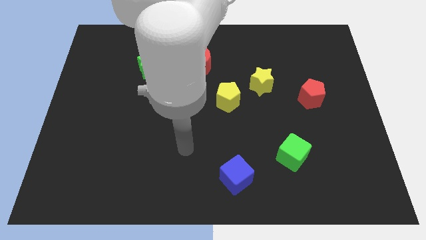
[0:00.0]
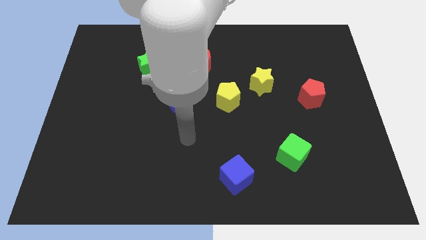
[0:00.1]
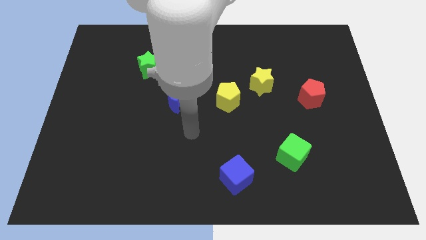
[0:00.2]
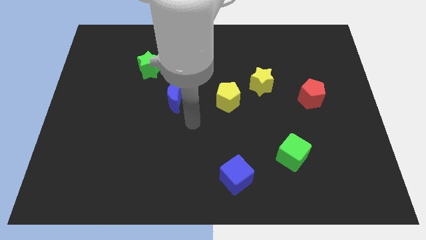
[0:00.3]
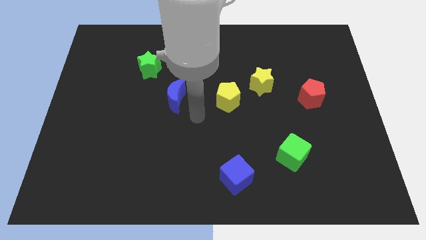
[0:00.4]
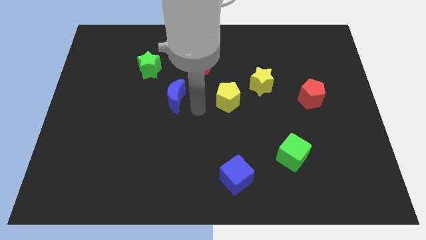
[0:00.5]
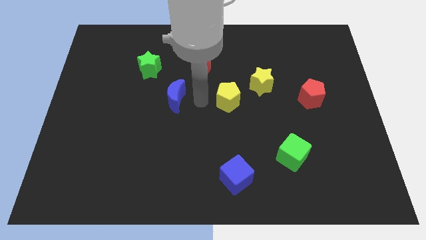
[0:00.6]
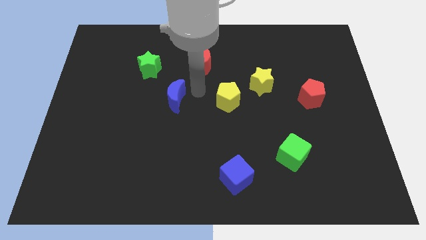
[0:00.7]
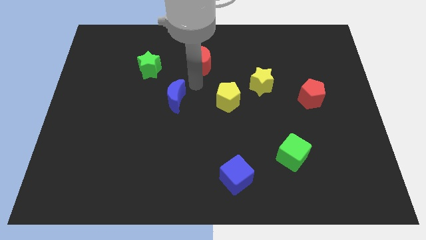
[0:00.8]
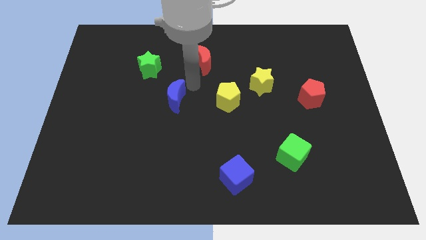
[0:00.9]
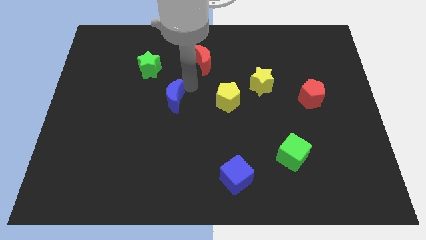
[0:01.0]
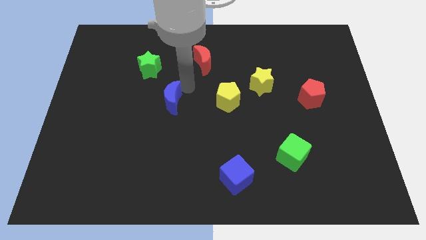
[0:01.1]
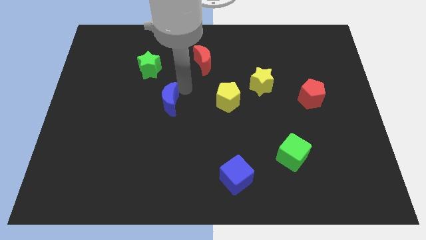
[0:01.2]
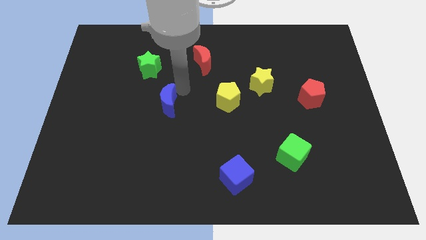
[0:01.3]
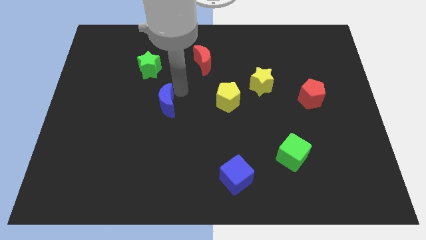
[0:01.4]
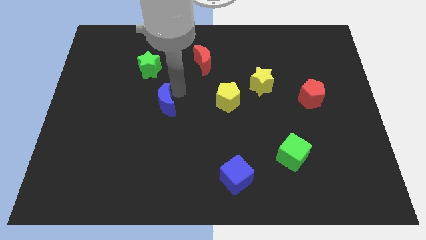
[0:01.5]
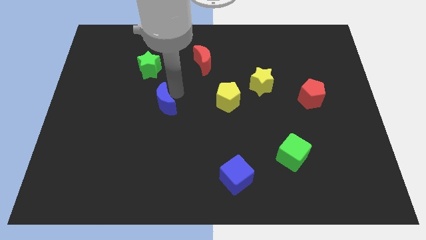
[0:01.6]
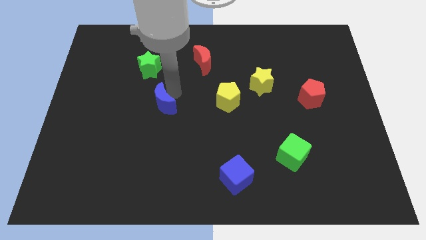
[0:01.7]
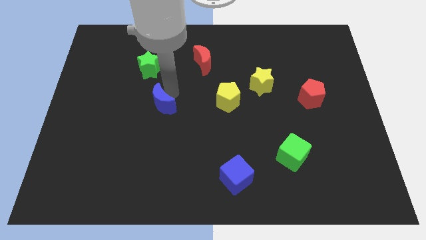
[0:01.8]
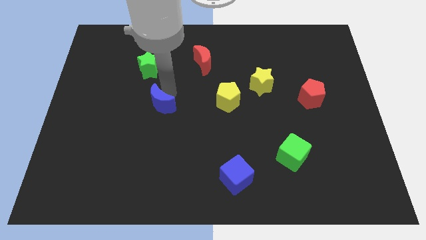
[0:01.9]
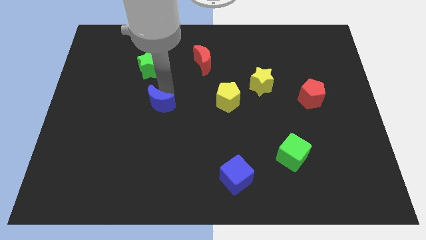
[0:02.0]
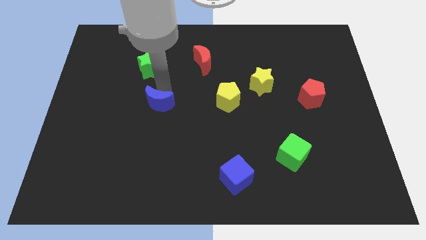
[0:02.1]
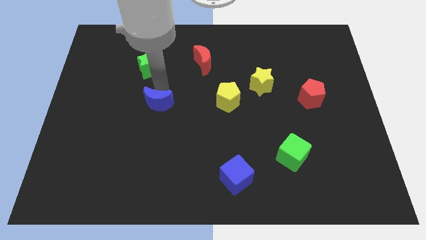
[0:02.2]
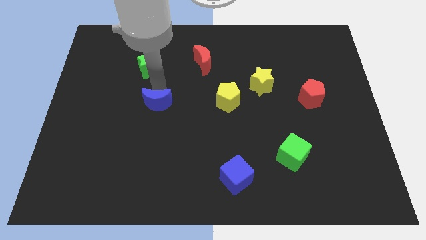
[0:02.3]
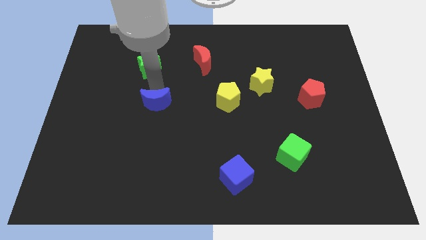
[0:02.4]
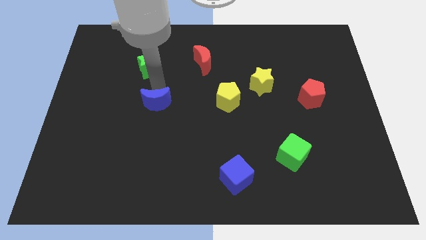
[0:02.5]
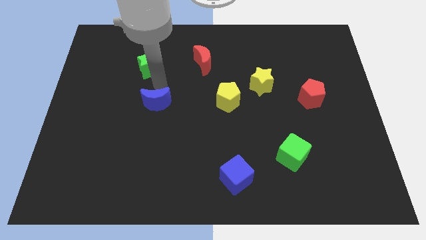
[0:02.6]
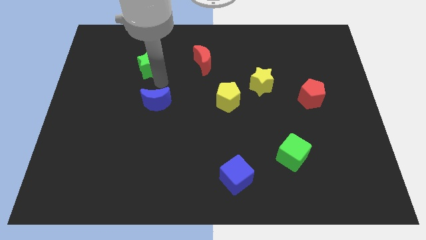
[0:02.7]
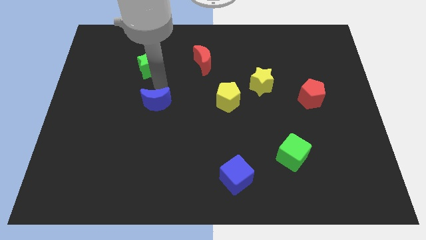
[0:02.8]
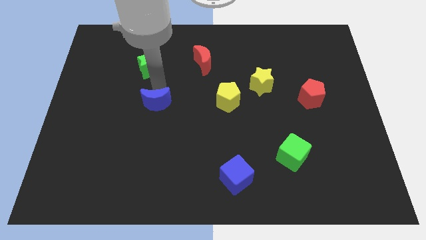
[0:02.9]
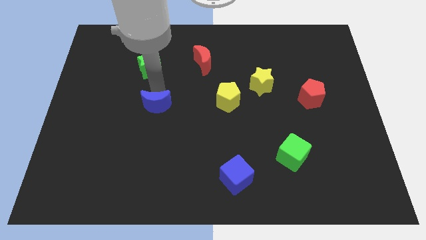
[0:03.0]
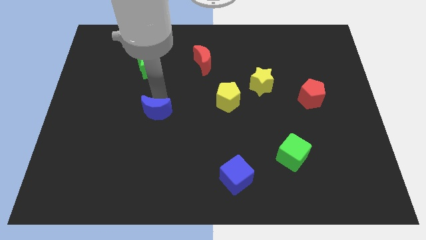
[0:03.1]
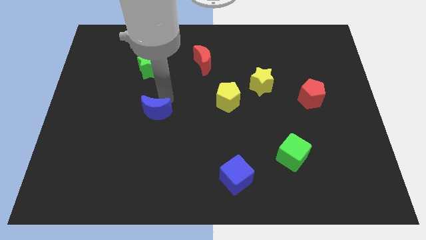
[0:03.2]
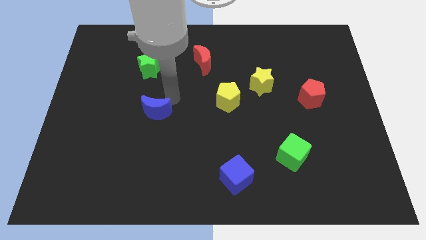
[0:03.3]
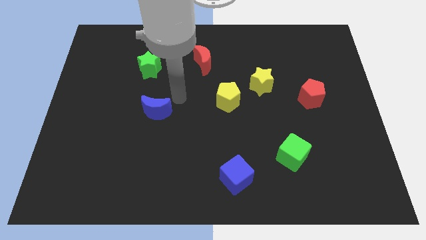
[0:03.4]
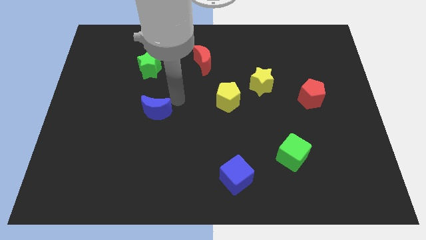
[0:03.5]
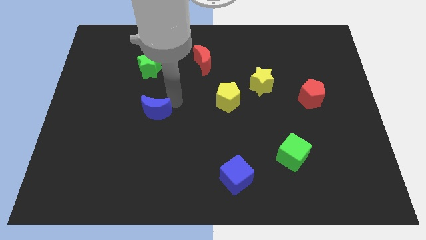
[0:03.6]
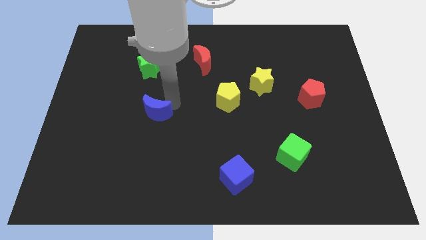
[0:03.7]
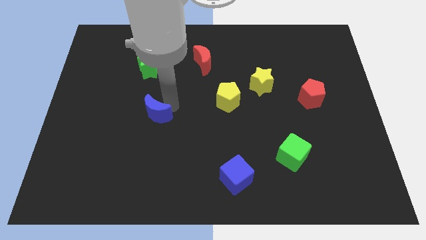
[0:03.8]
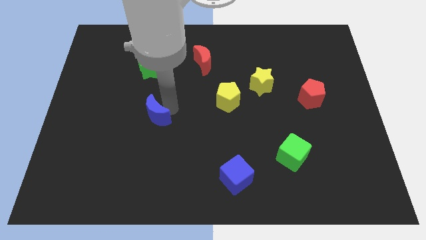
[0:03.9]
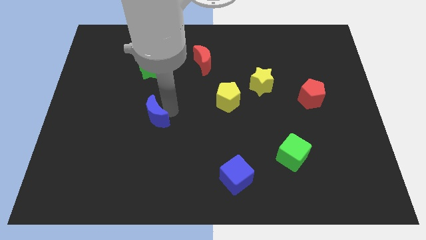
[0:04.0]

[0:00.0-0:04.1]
slightly move the blue moon diagonally down and left

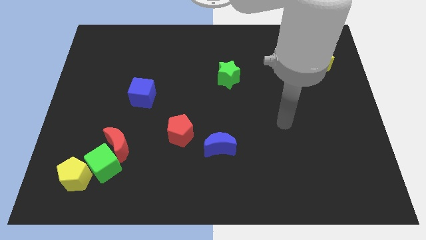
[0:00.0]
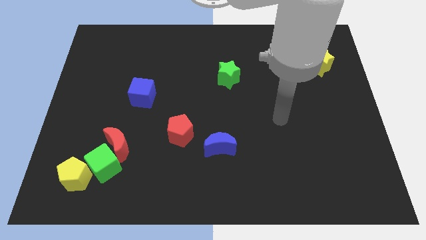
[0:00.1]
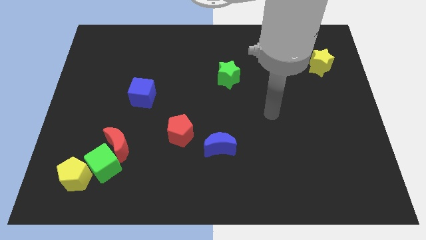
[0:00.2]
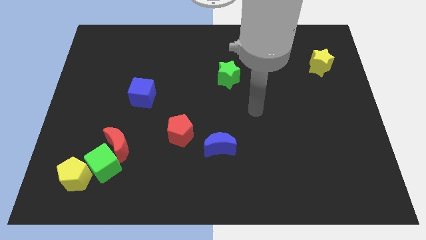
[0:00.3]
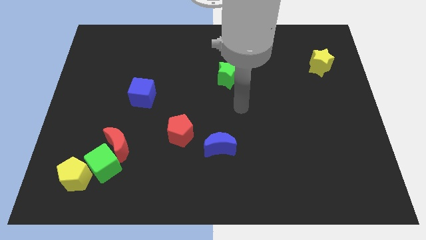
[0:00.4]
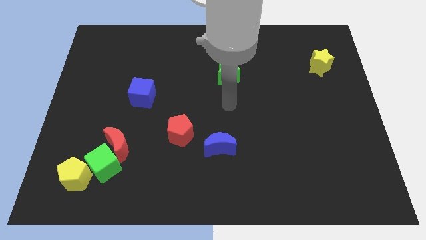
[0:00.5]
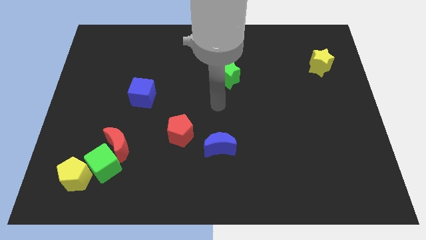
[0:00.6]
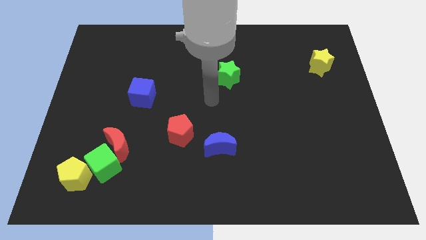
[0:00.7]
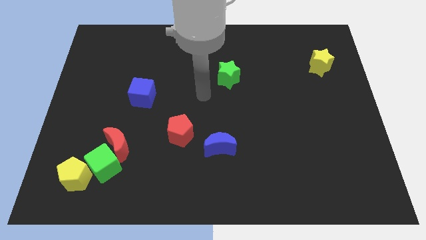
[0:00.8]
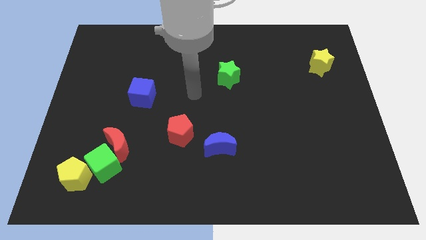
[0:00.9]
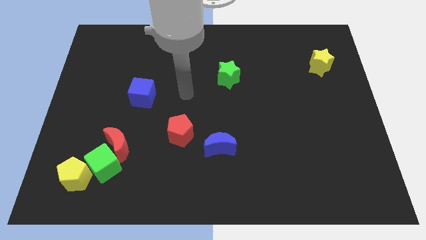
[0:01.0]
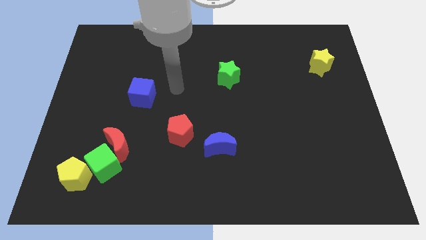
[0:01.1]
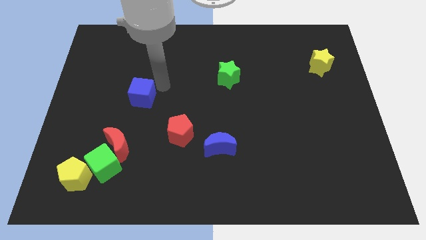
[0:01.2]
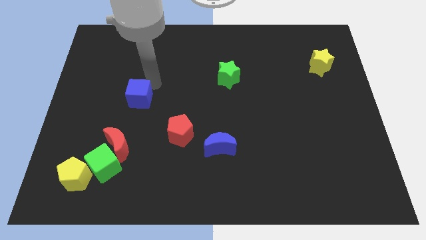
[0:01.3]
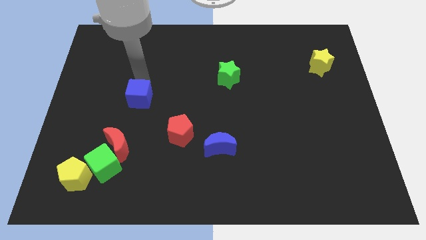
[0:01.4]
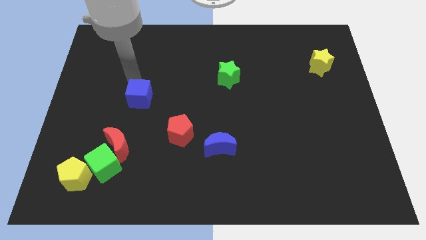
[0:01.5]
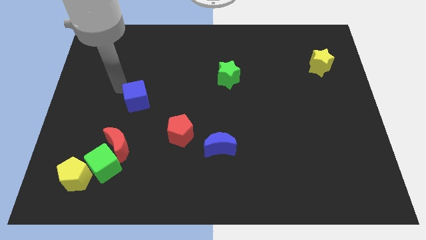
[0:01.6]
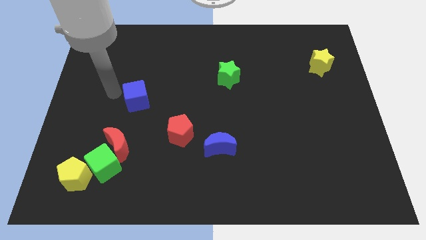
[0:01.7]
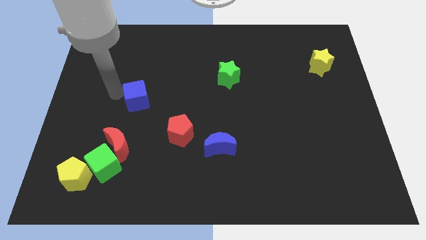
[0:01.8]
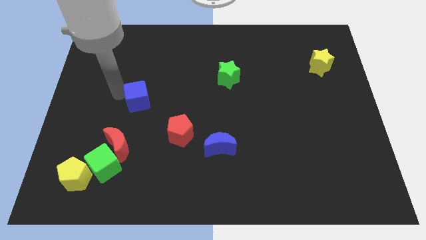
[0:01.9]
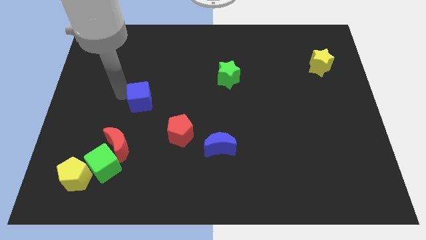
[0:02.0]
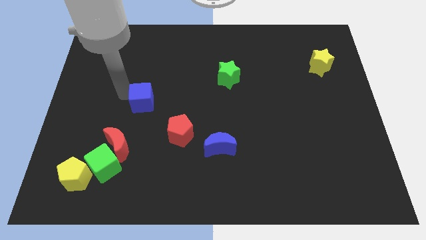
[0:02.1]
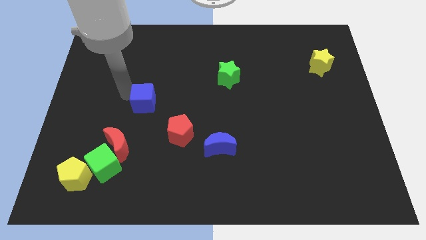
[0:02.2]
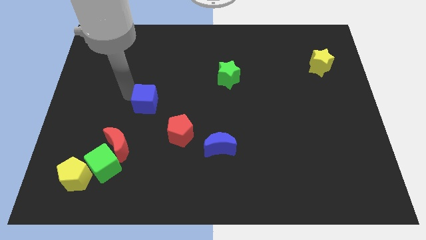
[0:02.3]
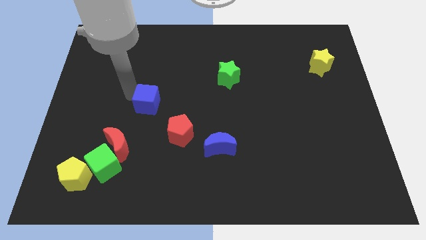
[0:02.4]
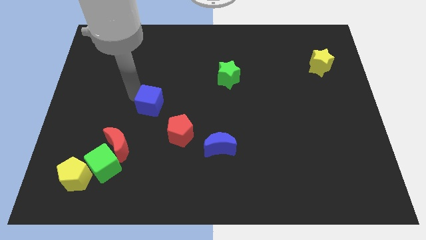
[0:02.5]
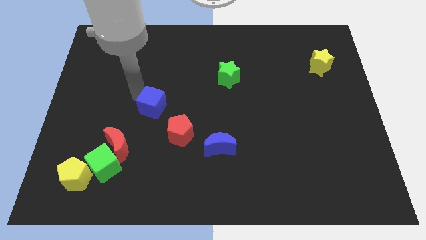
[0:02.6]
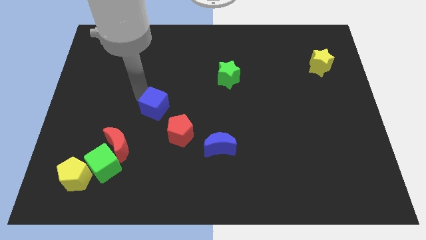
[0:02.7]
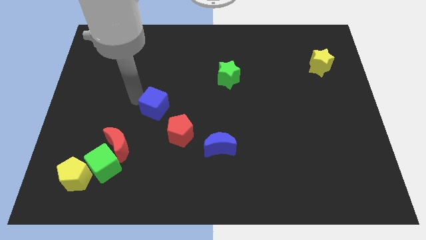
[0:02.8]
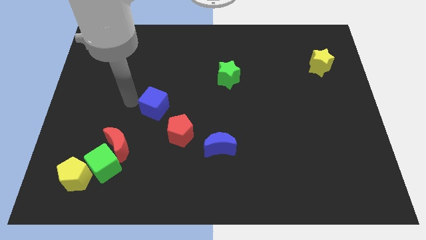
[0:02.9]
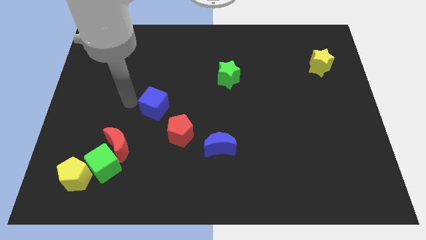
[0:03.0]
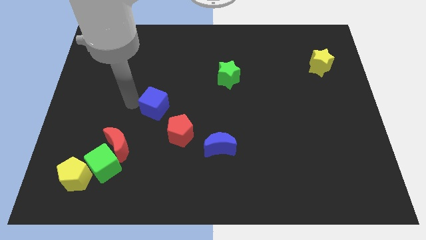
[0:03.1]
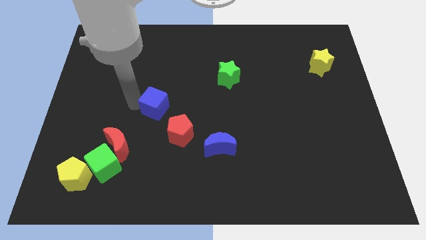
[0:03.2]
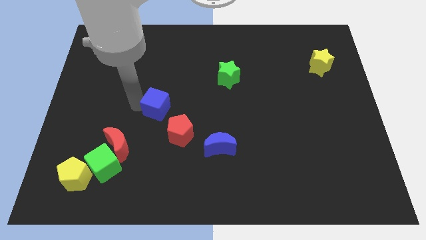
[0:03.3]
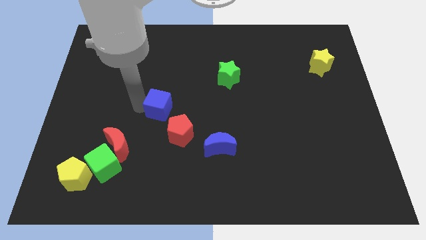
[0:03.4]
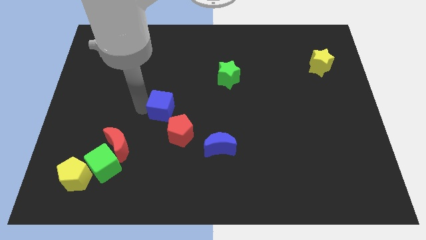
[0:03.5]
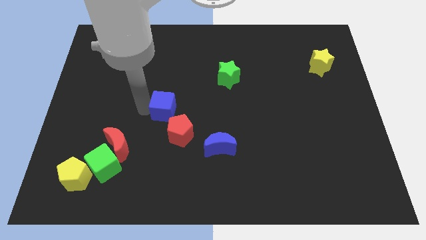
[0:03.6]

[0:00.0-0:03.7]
slightly move the blue cube downwards and then right

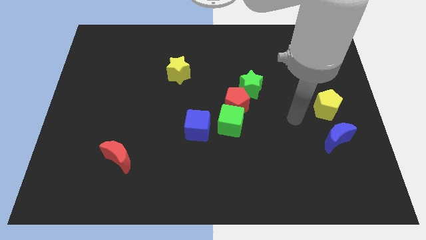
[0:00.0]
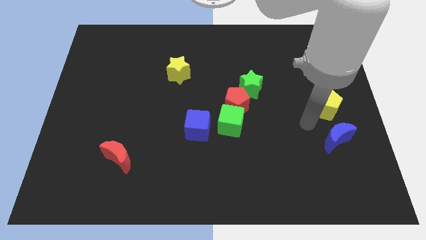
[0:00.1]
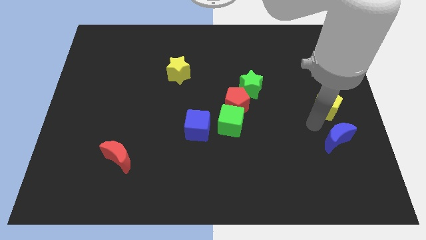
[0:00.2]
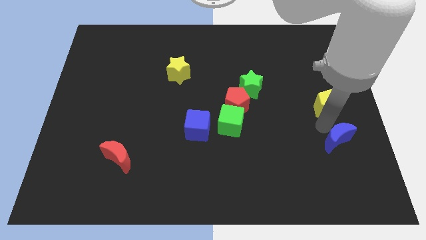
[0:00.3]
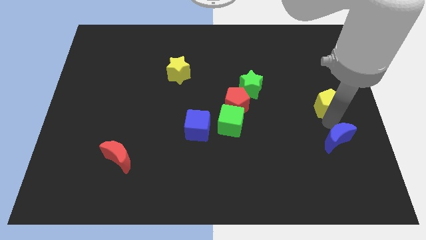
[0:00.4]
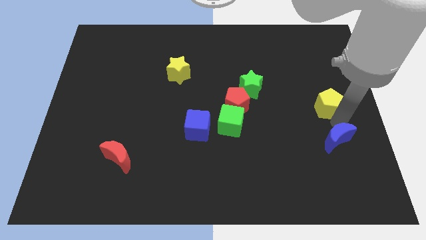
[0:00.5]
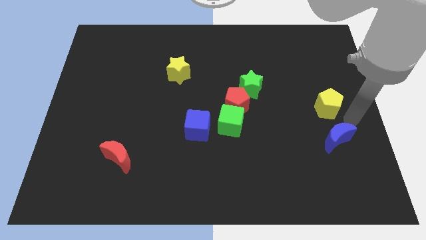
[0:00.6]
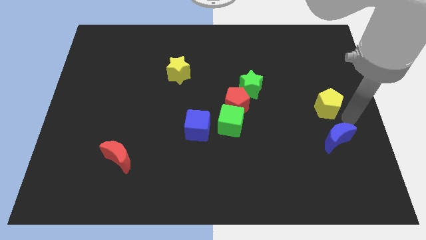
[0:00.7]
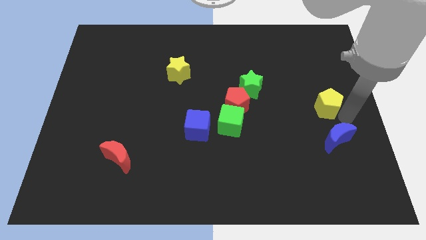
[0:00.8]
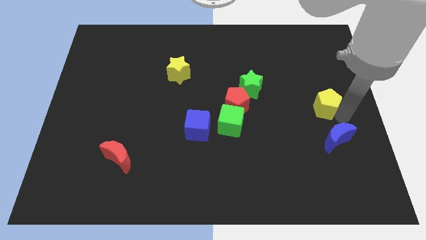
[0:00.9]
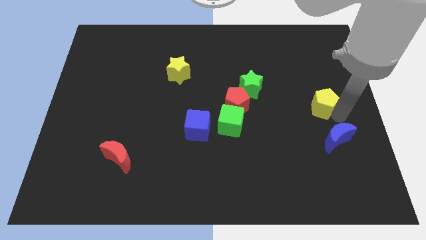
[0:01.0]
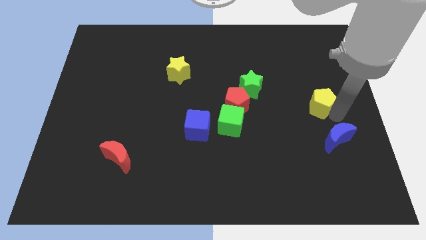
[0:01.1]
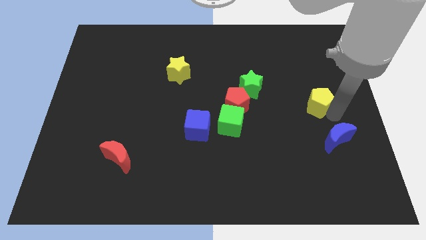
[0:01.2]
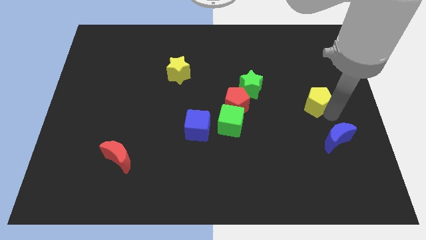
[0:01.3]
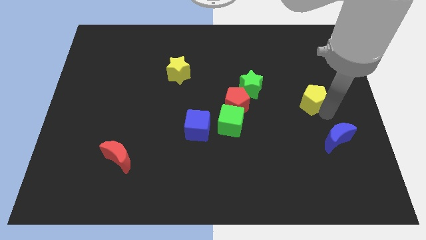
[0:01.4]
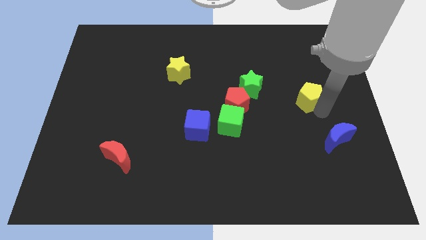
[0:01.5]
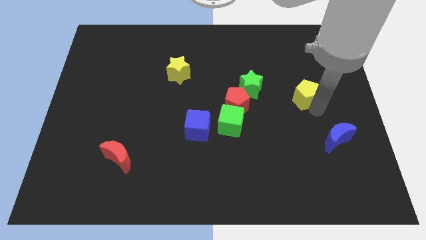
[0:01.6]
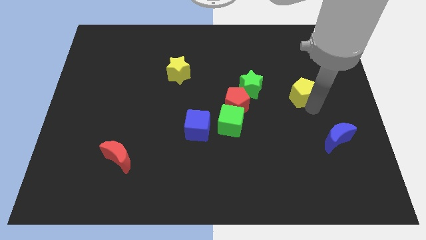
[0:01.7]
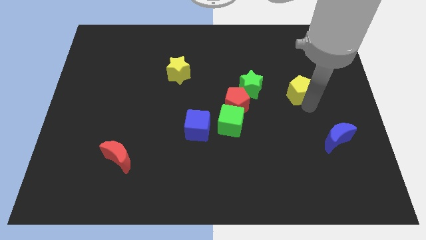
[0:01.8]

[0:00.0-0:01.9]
push the yellow pentagon diagonally upwards and to the left a bit
